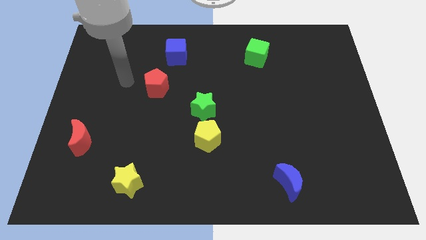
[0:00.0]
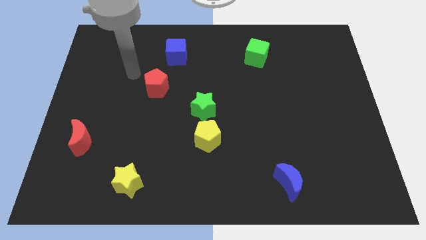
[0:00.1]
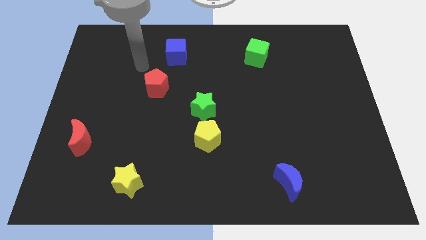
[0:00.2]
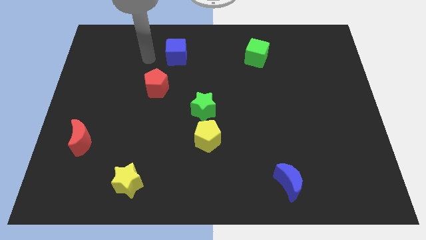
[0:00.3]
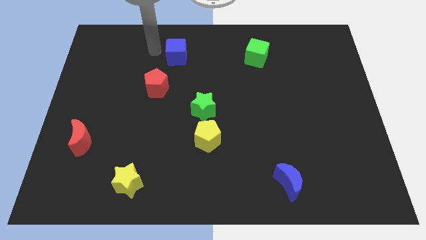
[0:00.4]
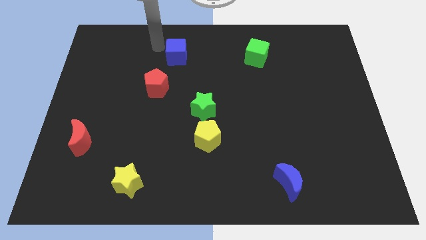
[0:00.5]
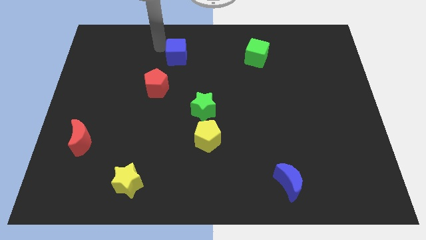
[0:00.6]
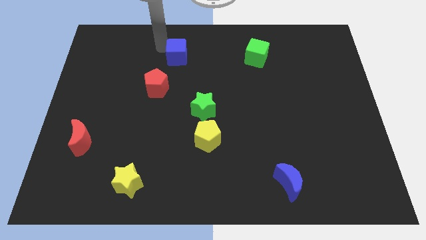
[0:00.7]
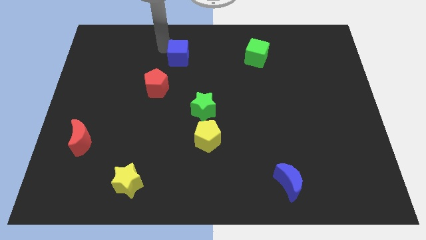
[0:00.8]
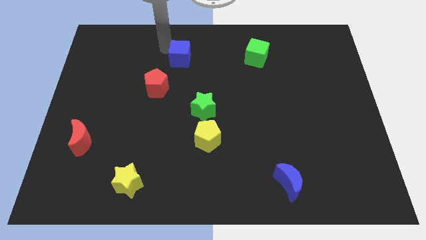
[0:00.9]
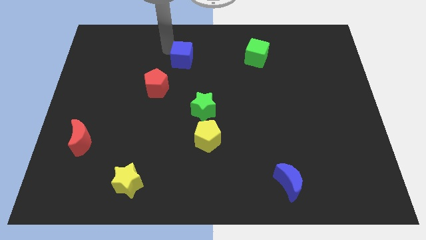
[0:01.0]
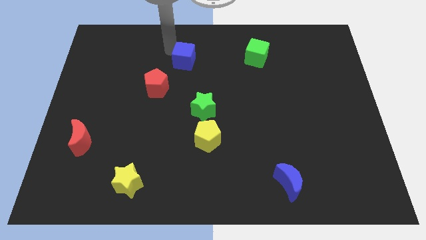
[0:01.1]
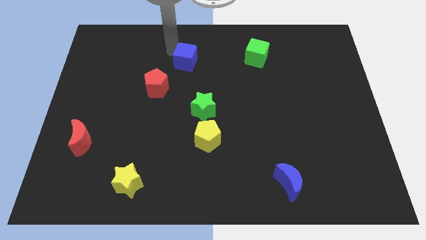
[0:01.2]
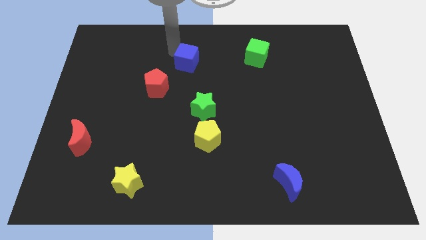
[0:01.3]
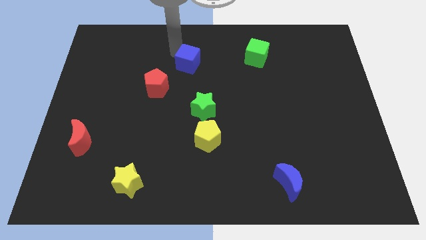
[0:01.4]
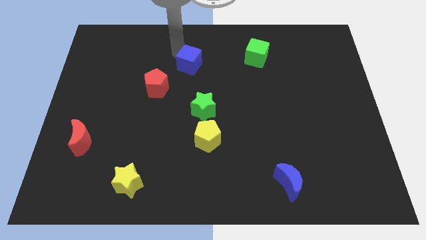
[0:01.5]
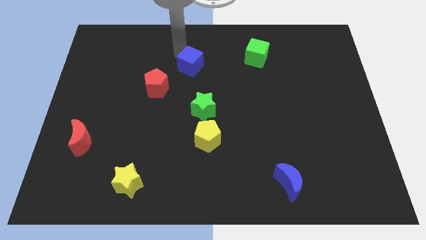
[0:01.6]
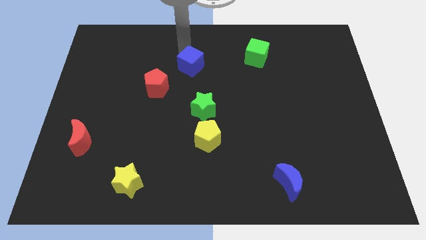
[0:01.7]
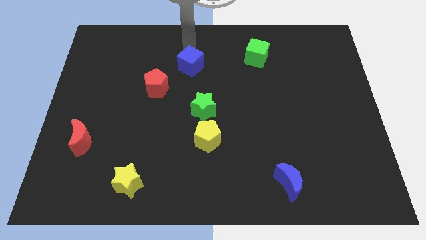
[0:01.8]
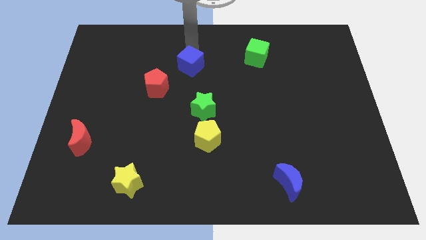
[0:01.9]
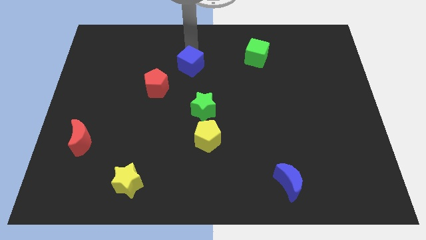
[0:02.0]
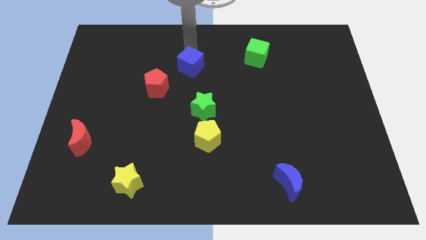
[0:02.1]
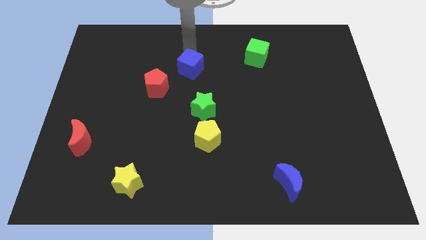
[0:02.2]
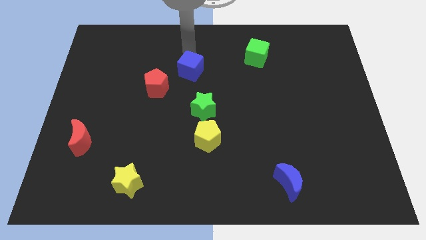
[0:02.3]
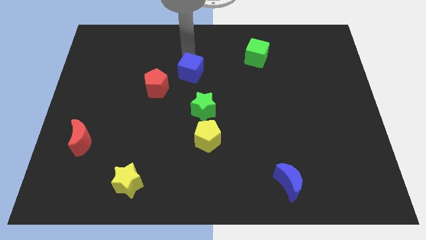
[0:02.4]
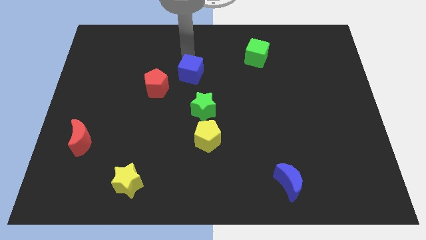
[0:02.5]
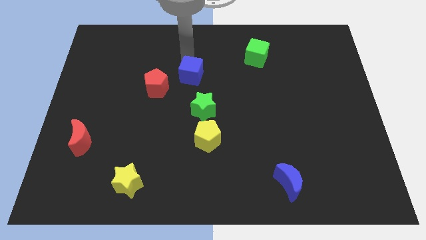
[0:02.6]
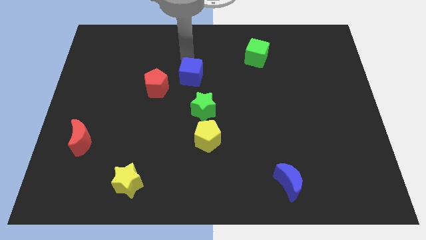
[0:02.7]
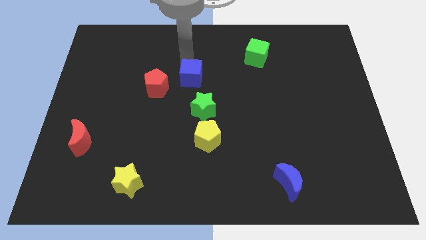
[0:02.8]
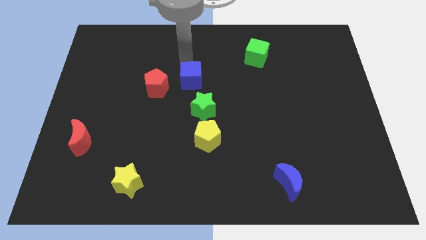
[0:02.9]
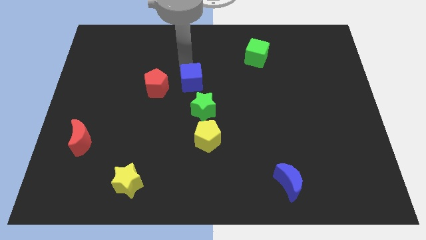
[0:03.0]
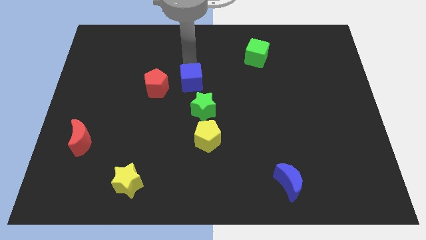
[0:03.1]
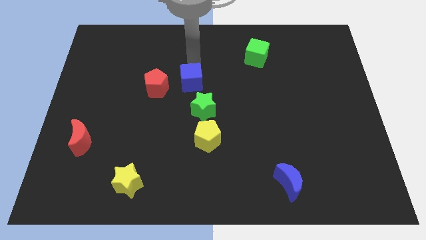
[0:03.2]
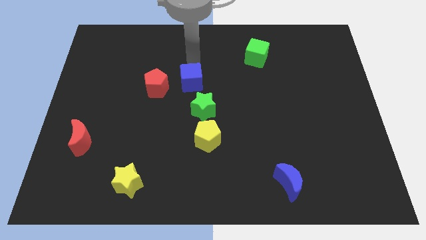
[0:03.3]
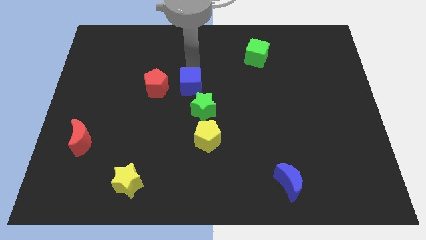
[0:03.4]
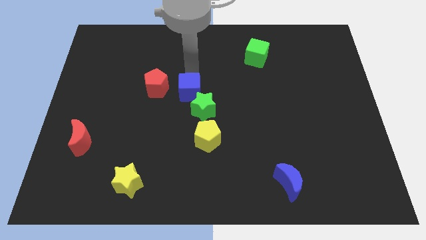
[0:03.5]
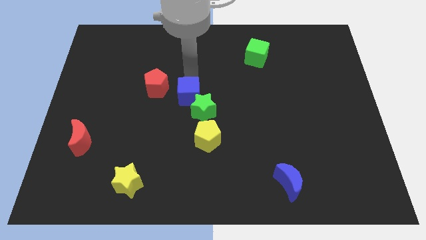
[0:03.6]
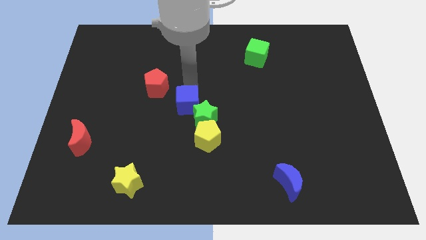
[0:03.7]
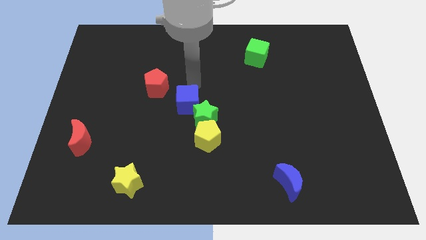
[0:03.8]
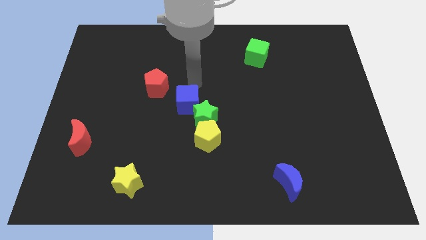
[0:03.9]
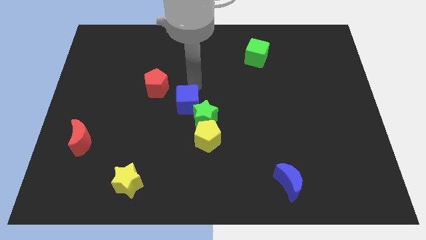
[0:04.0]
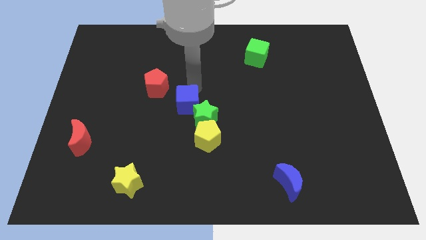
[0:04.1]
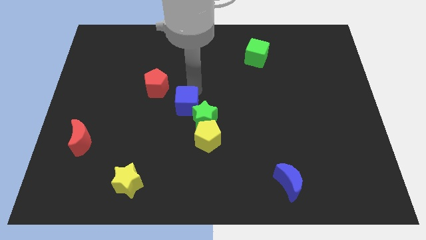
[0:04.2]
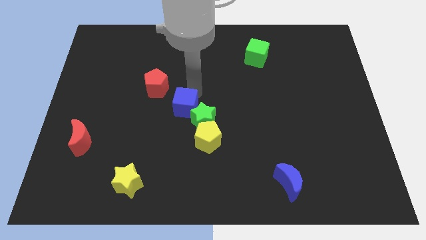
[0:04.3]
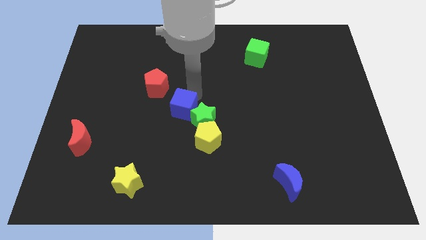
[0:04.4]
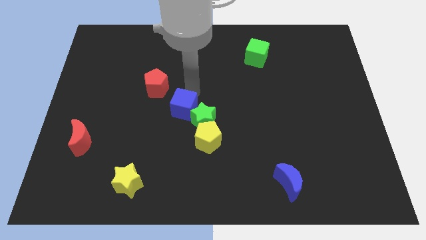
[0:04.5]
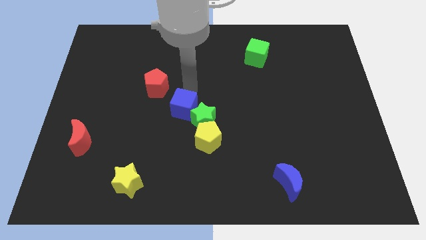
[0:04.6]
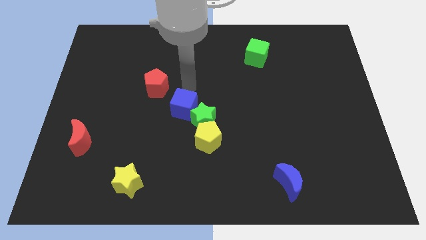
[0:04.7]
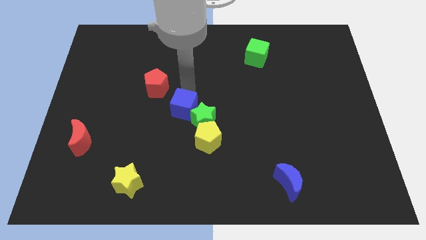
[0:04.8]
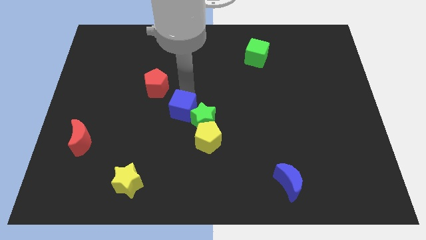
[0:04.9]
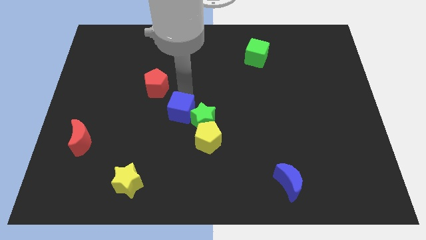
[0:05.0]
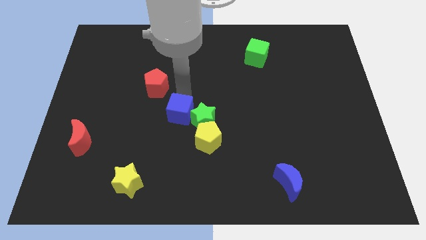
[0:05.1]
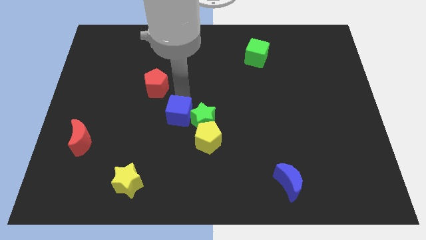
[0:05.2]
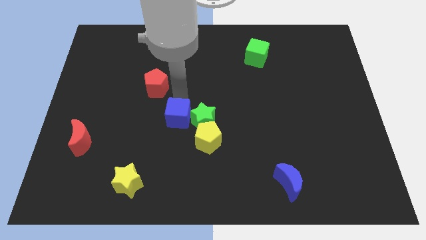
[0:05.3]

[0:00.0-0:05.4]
move the blue cube downwards

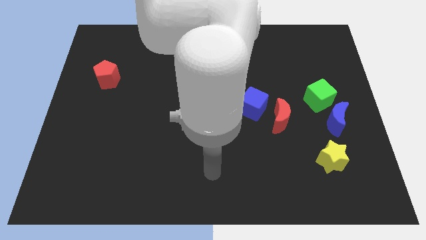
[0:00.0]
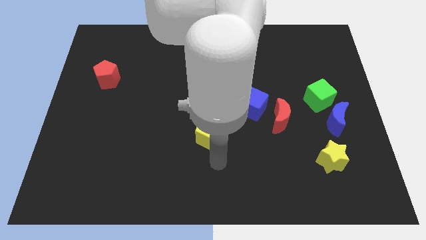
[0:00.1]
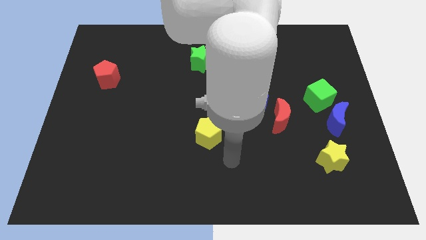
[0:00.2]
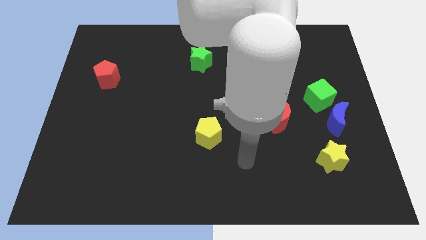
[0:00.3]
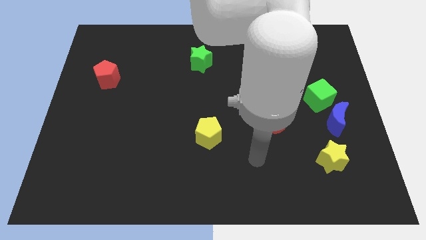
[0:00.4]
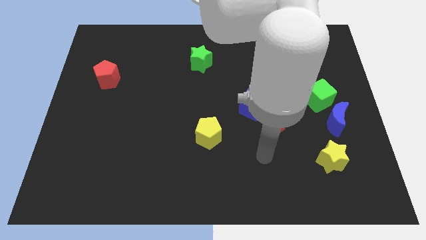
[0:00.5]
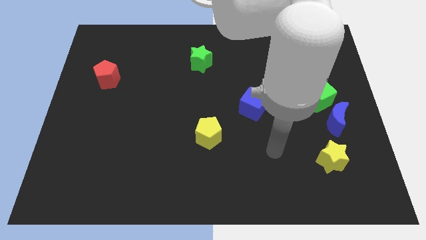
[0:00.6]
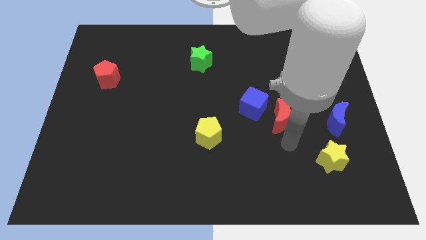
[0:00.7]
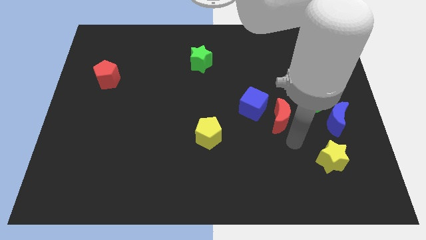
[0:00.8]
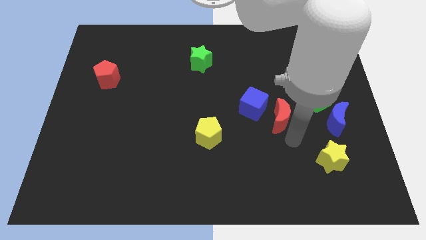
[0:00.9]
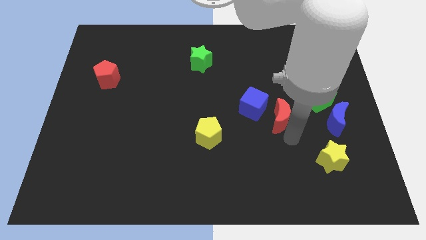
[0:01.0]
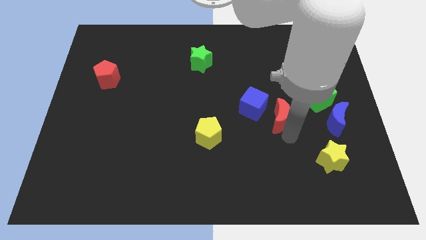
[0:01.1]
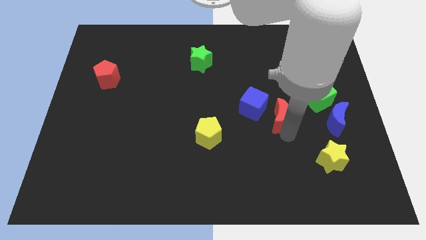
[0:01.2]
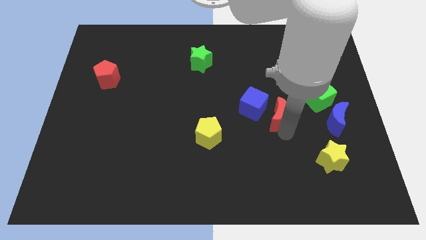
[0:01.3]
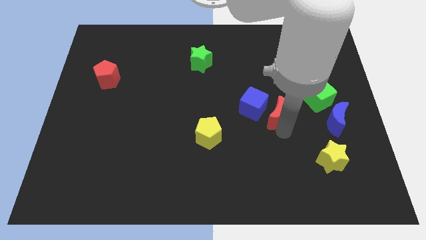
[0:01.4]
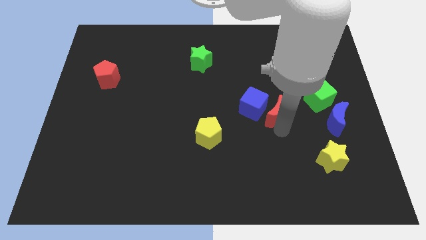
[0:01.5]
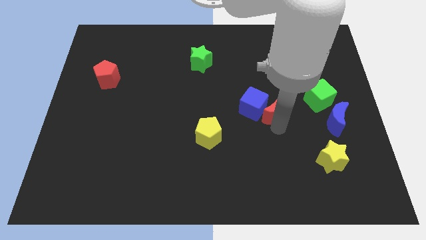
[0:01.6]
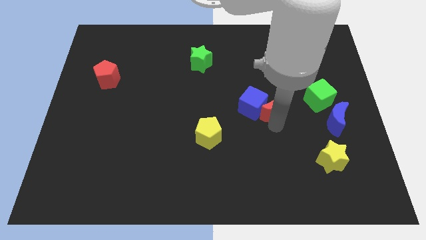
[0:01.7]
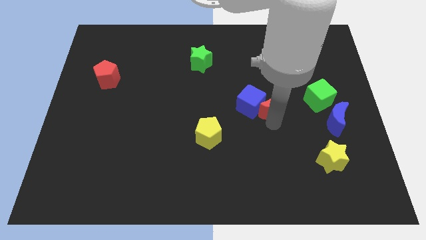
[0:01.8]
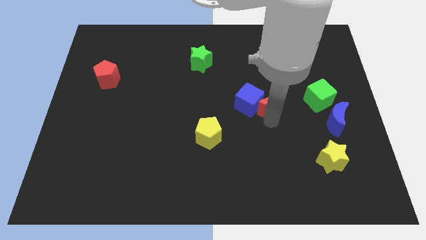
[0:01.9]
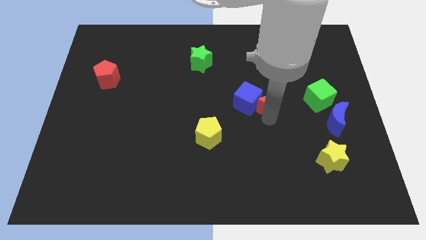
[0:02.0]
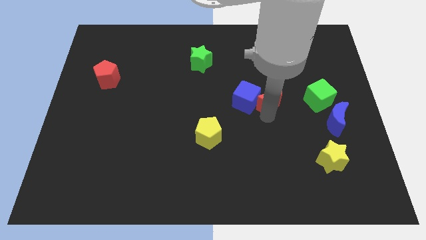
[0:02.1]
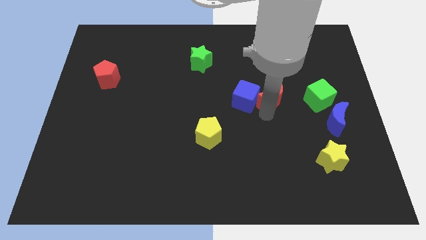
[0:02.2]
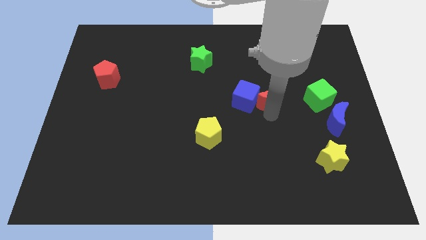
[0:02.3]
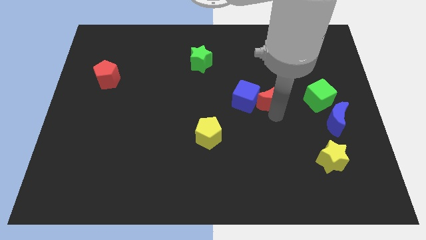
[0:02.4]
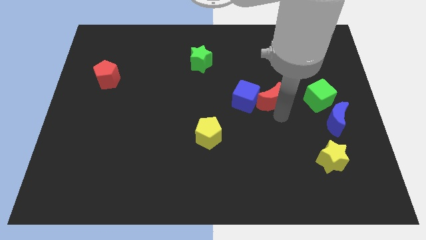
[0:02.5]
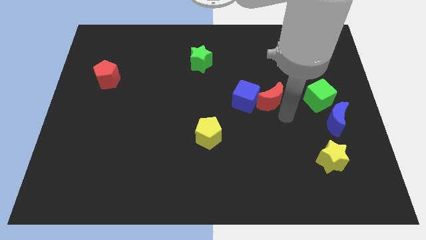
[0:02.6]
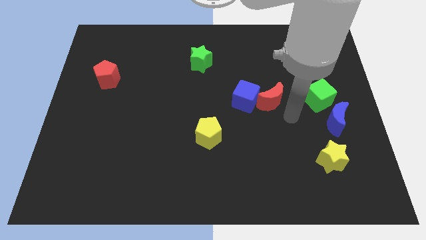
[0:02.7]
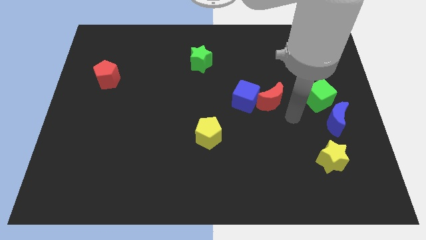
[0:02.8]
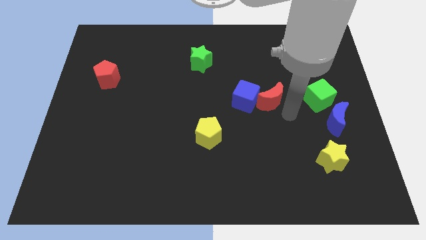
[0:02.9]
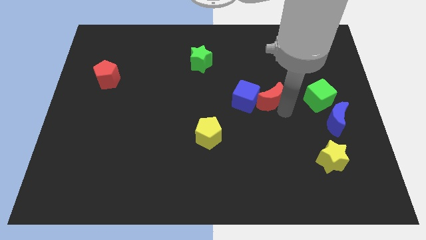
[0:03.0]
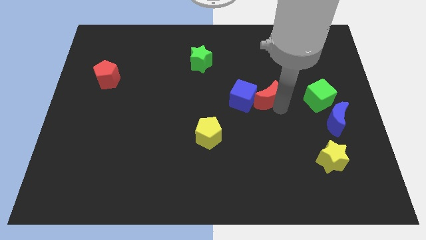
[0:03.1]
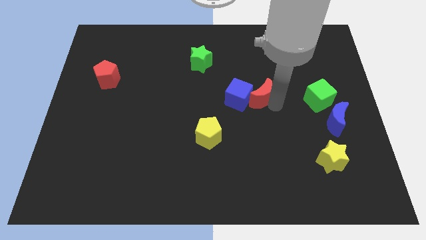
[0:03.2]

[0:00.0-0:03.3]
slide the red moon a little bit upwards and to the left
